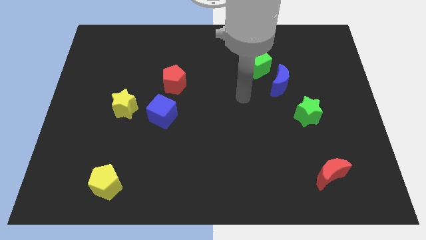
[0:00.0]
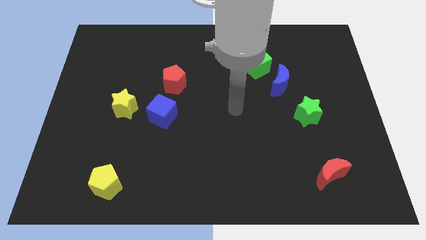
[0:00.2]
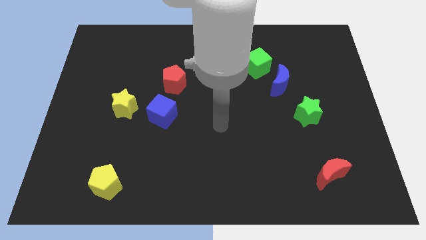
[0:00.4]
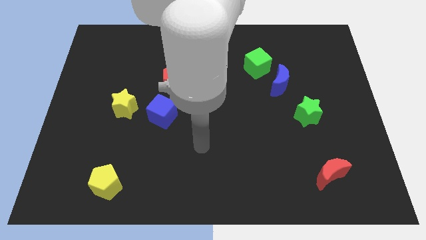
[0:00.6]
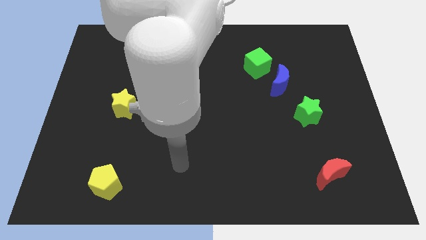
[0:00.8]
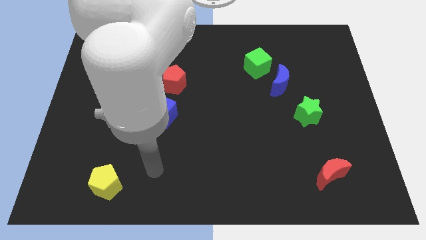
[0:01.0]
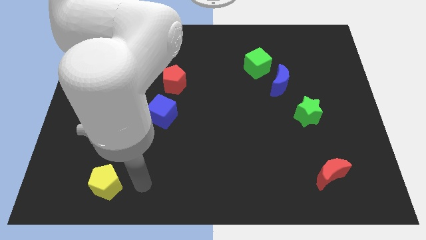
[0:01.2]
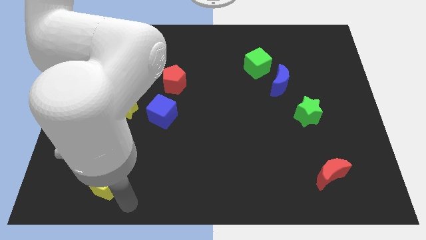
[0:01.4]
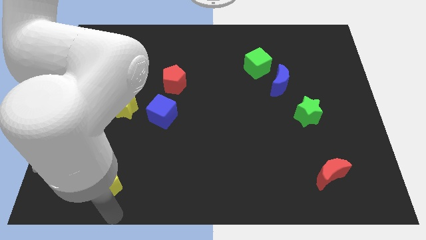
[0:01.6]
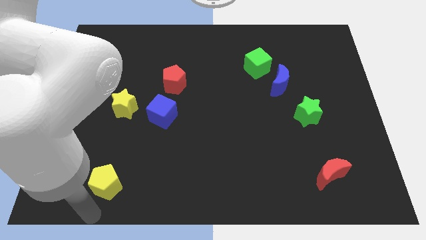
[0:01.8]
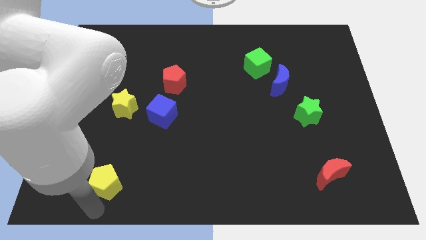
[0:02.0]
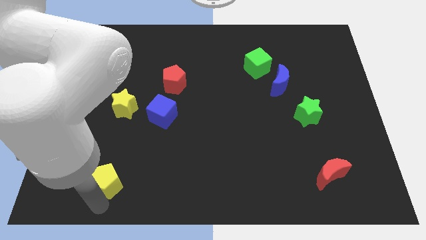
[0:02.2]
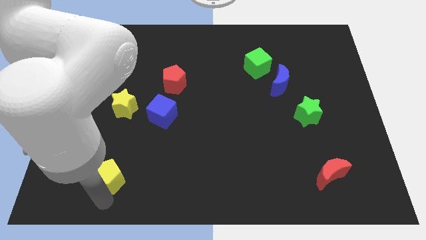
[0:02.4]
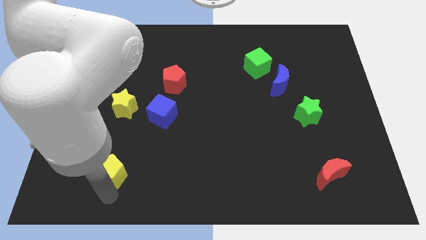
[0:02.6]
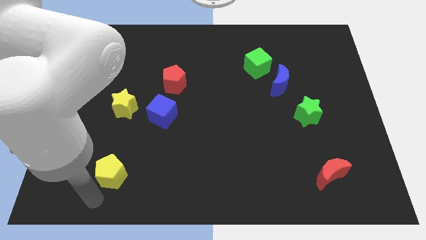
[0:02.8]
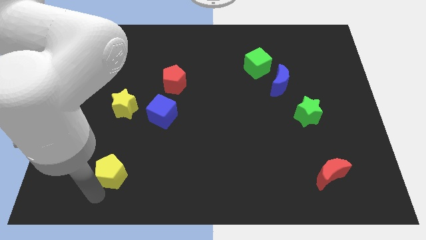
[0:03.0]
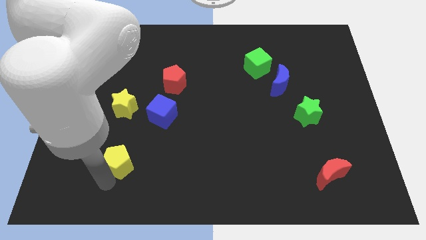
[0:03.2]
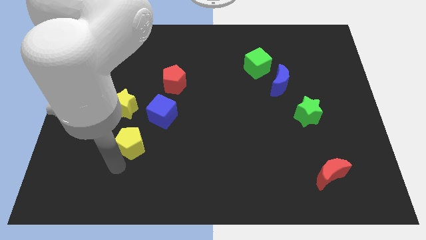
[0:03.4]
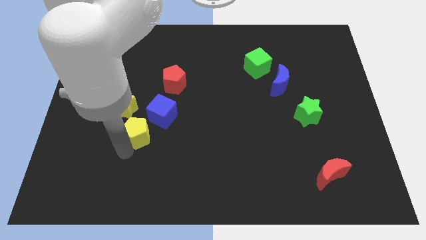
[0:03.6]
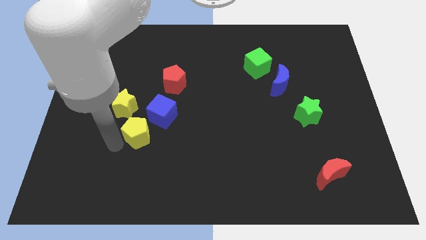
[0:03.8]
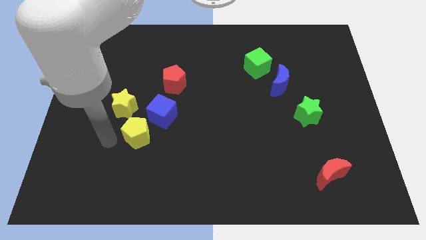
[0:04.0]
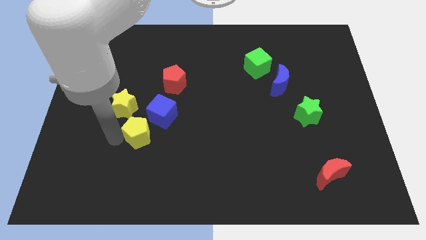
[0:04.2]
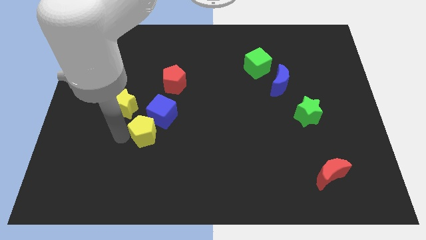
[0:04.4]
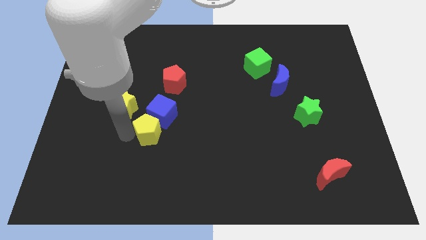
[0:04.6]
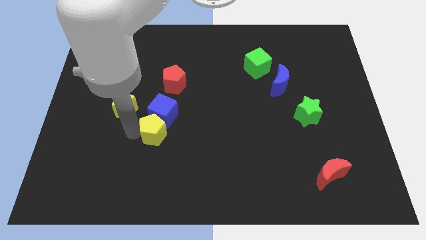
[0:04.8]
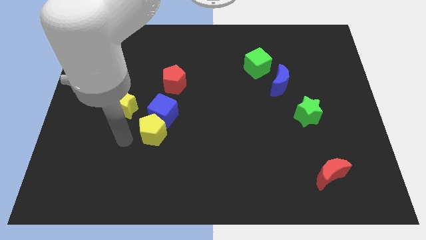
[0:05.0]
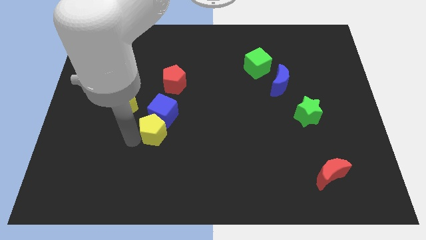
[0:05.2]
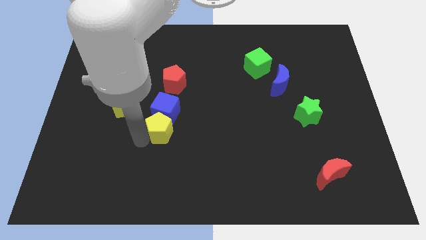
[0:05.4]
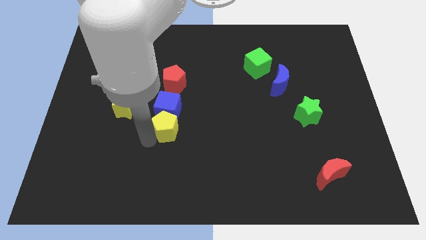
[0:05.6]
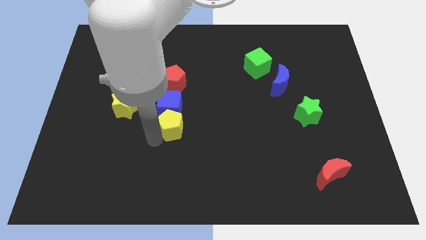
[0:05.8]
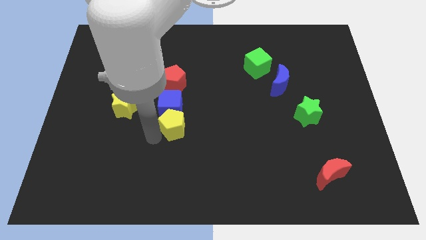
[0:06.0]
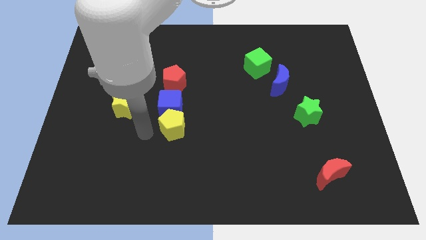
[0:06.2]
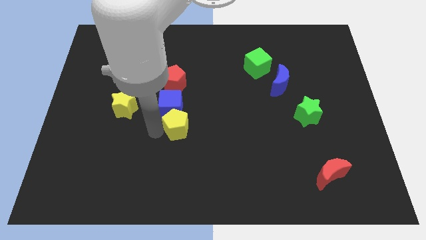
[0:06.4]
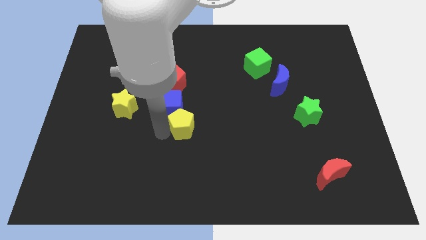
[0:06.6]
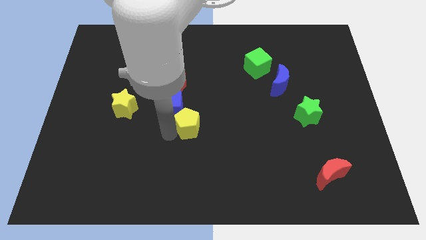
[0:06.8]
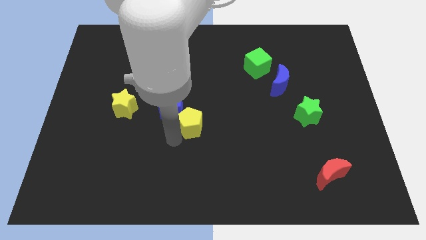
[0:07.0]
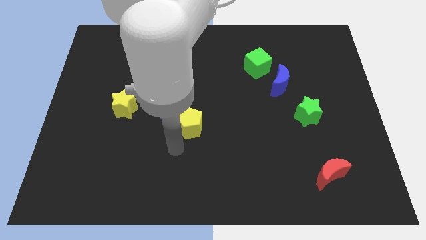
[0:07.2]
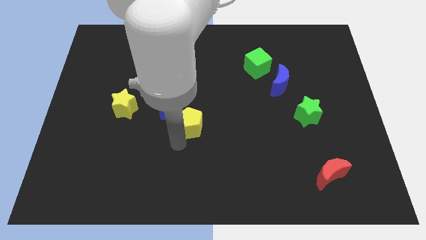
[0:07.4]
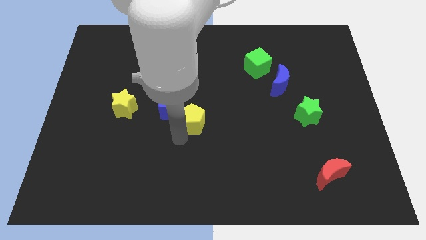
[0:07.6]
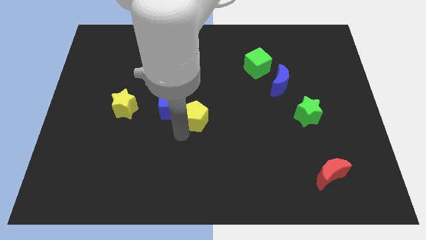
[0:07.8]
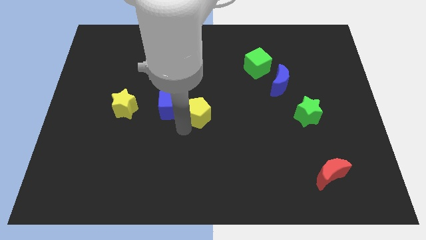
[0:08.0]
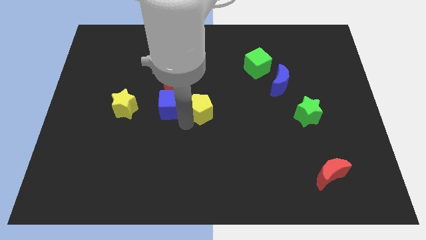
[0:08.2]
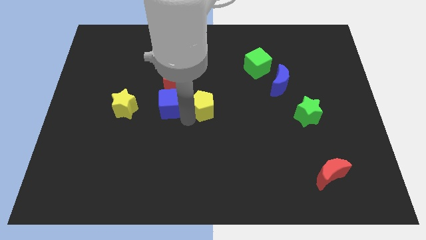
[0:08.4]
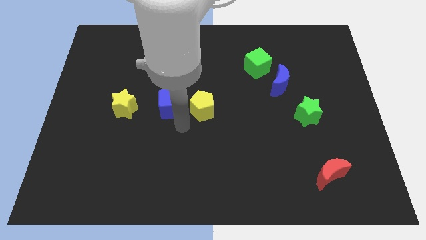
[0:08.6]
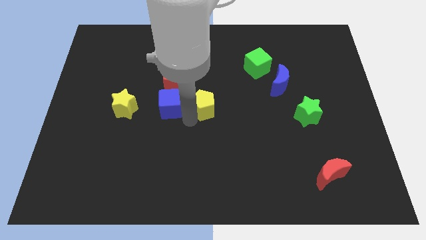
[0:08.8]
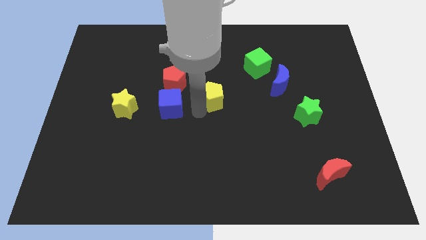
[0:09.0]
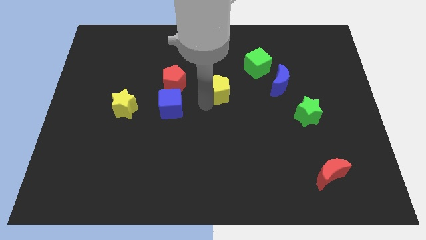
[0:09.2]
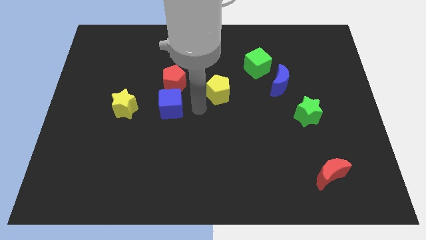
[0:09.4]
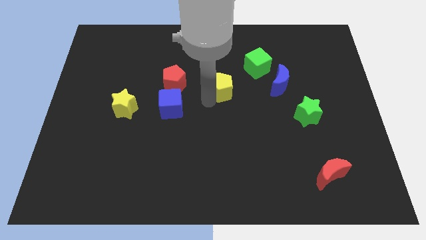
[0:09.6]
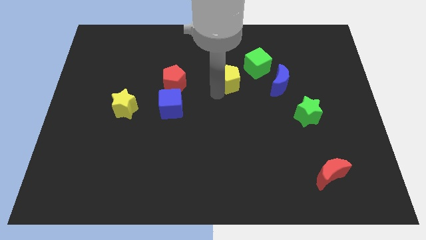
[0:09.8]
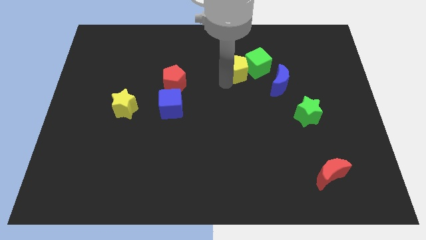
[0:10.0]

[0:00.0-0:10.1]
slide the yellow pentagon towards the green cube

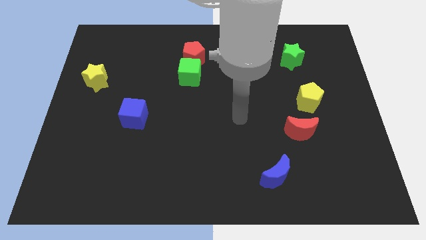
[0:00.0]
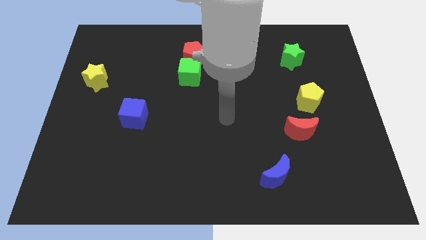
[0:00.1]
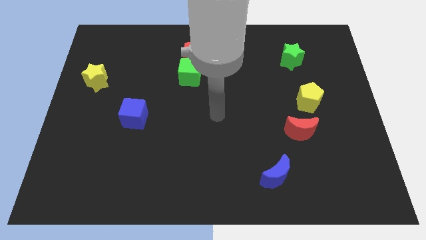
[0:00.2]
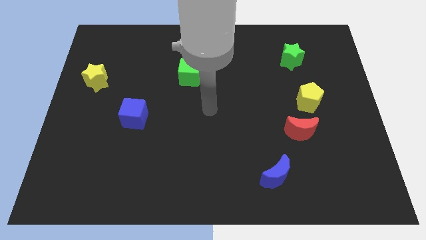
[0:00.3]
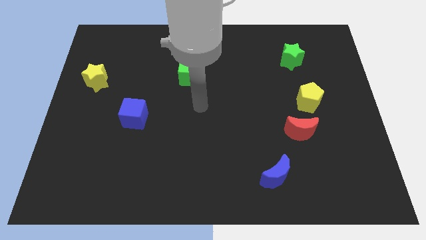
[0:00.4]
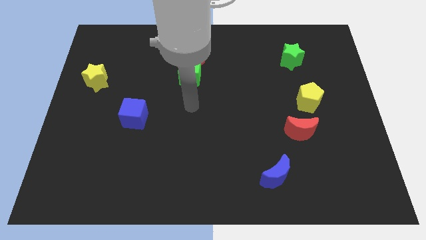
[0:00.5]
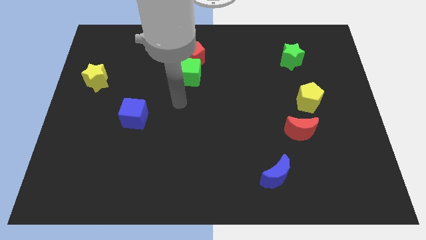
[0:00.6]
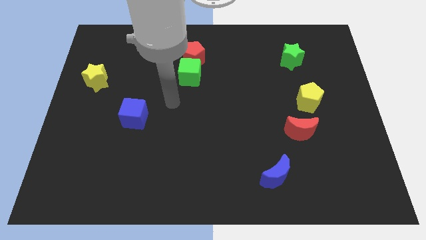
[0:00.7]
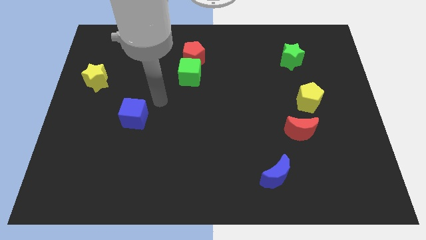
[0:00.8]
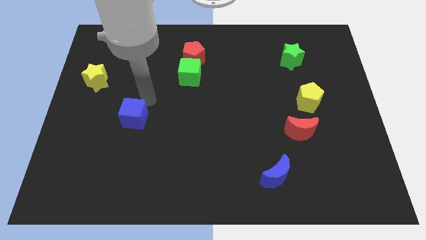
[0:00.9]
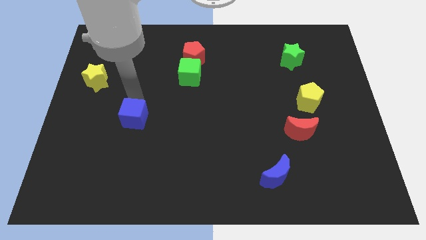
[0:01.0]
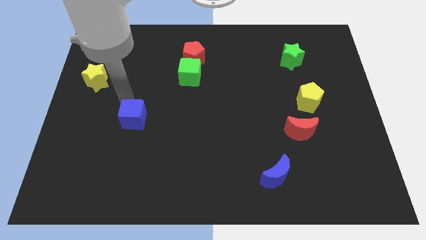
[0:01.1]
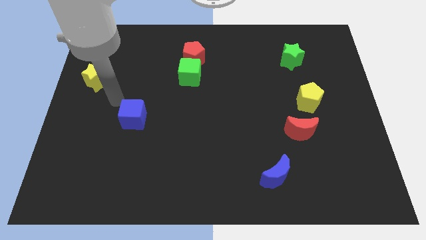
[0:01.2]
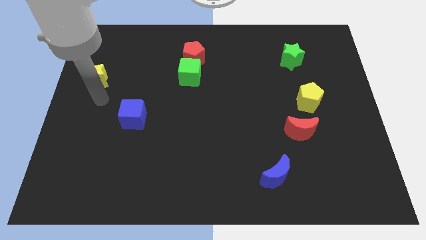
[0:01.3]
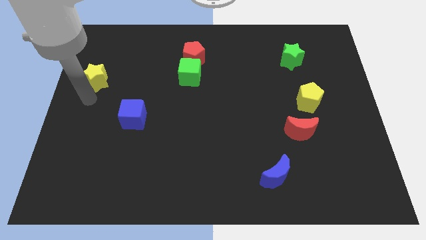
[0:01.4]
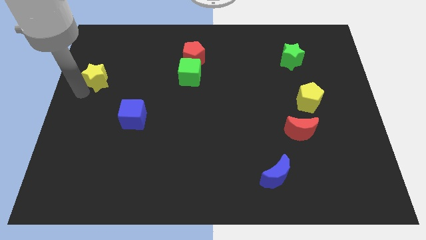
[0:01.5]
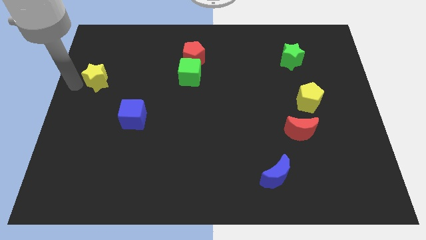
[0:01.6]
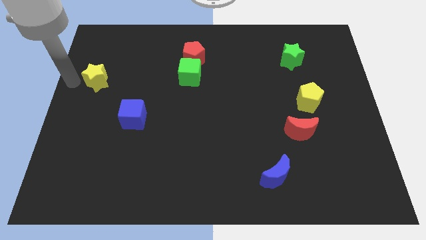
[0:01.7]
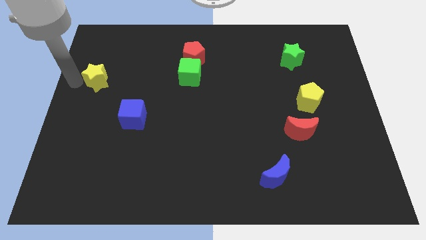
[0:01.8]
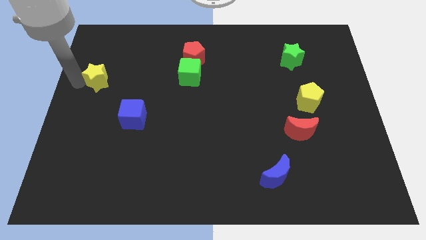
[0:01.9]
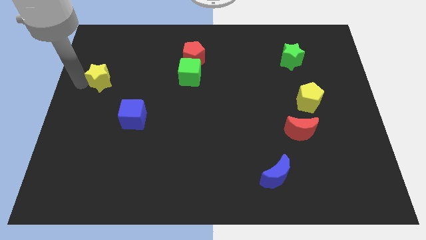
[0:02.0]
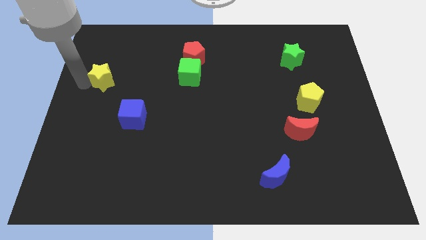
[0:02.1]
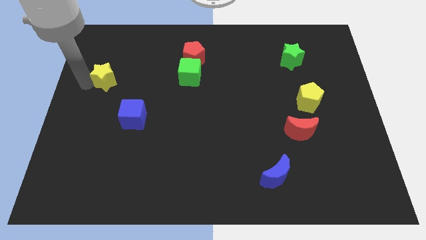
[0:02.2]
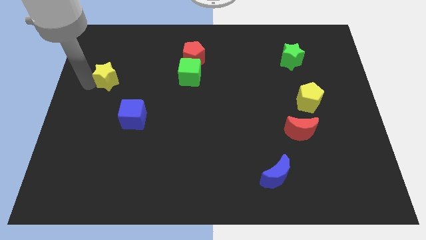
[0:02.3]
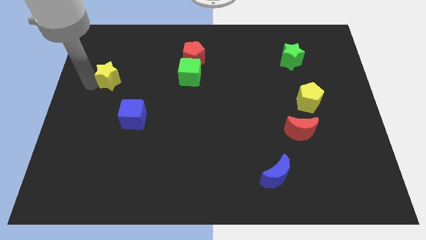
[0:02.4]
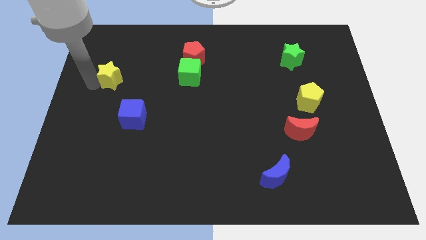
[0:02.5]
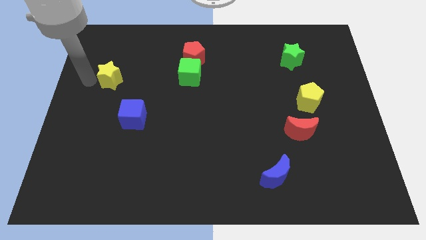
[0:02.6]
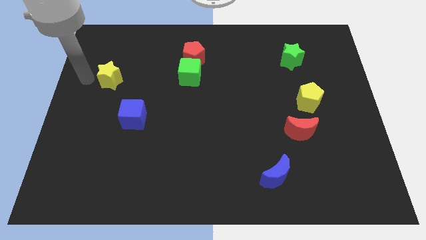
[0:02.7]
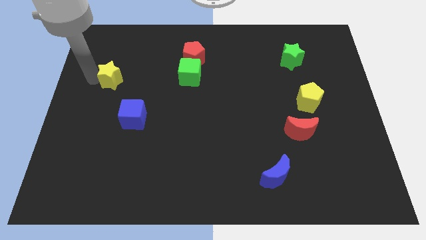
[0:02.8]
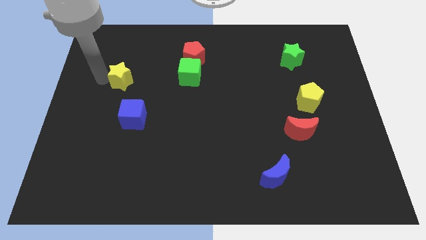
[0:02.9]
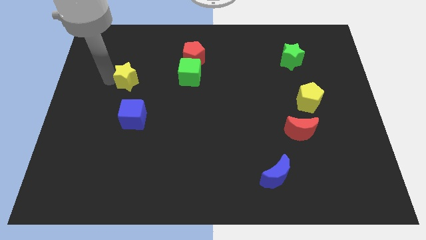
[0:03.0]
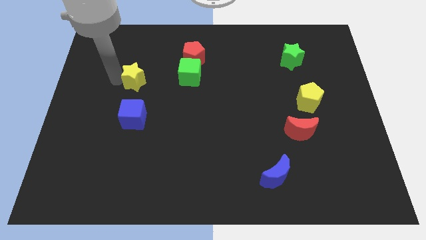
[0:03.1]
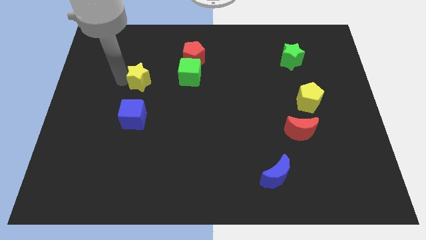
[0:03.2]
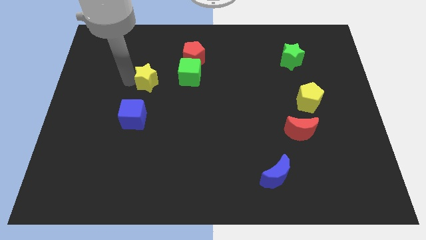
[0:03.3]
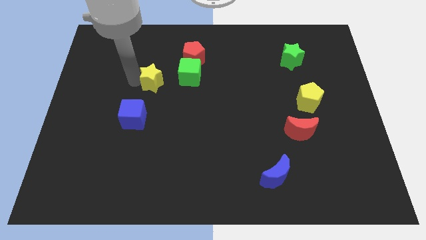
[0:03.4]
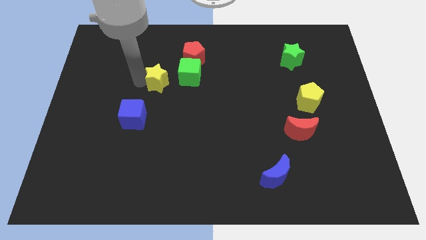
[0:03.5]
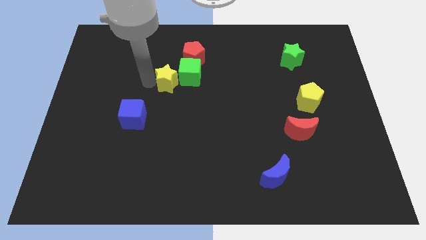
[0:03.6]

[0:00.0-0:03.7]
slide the yellow star towards the green cube
